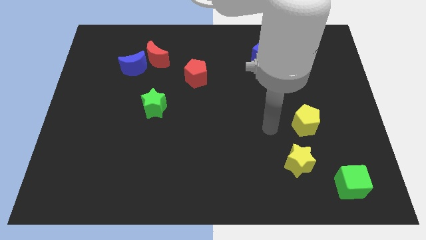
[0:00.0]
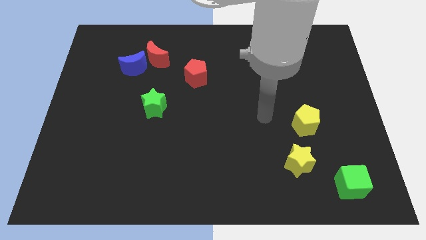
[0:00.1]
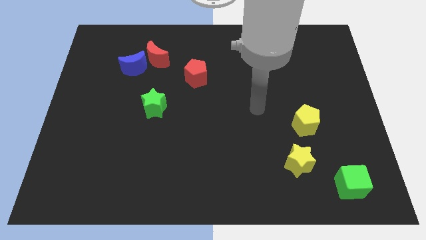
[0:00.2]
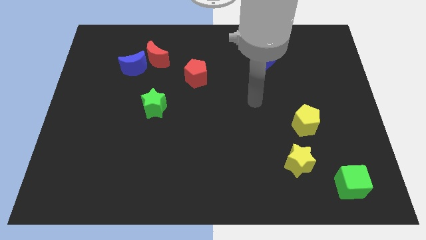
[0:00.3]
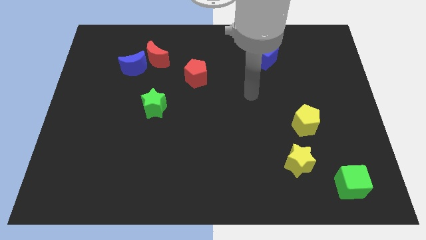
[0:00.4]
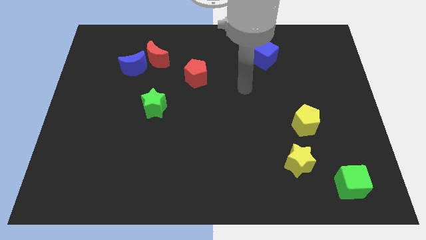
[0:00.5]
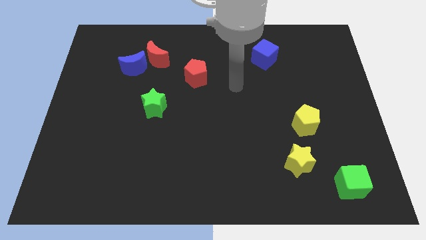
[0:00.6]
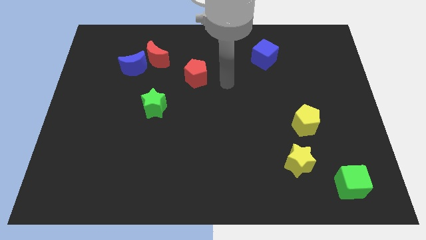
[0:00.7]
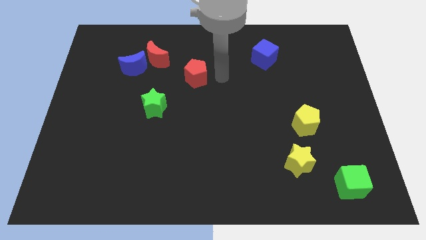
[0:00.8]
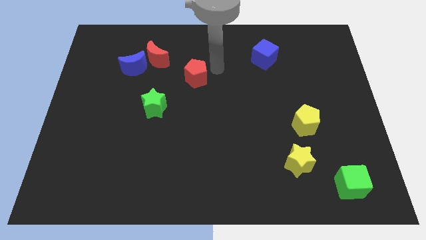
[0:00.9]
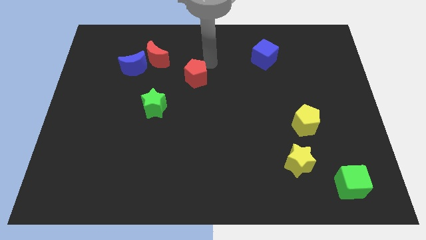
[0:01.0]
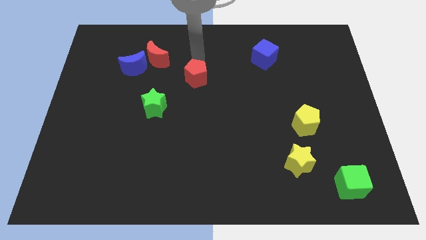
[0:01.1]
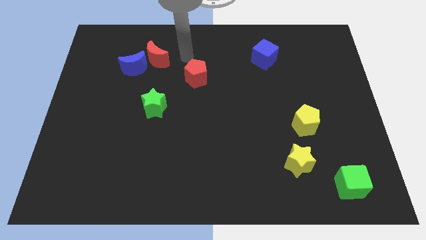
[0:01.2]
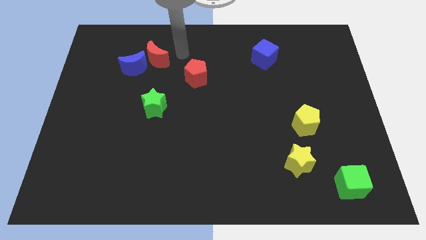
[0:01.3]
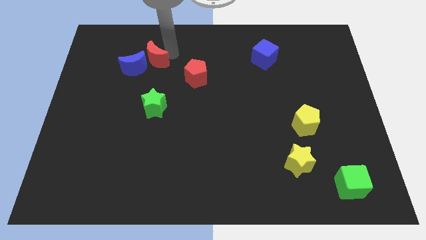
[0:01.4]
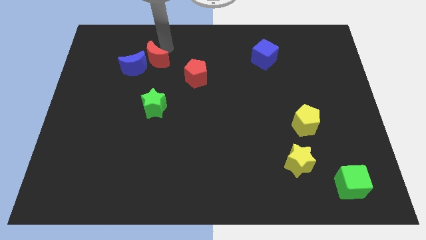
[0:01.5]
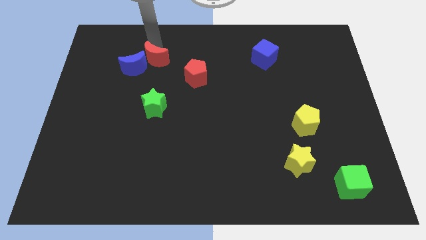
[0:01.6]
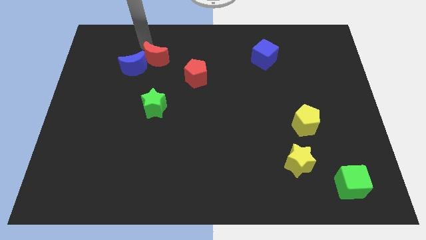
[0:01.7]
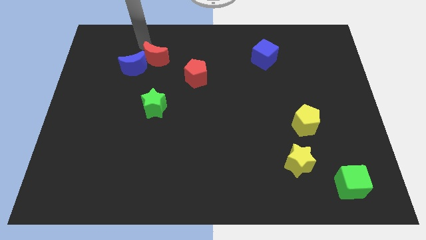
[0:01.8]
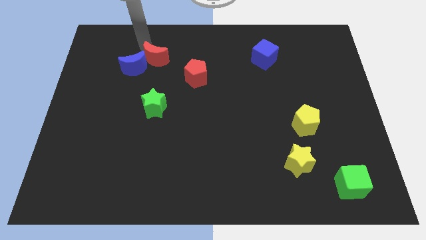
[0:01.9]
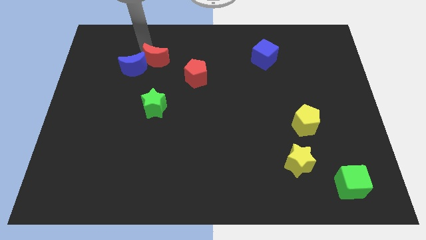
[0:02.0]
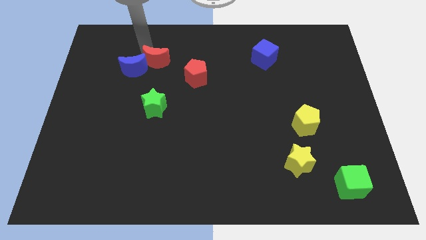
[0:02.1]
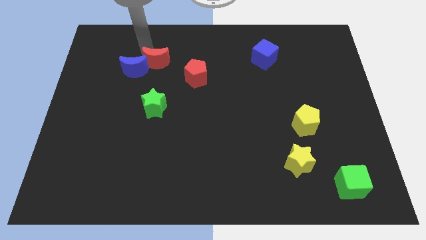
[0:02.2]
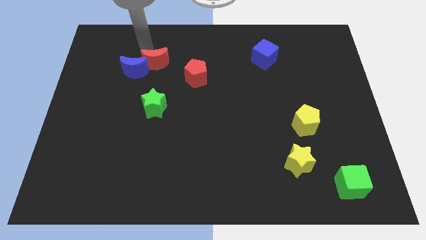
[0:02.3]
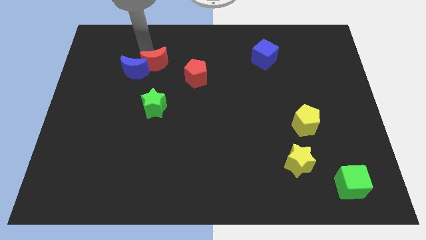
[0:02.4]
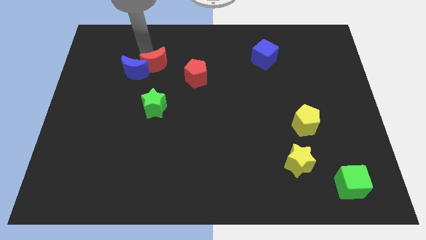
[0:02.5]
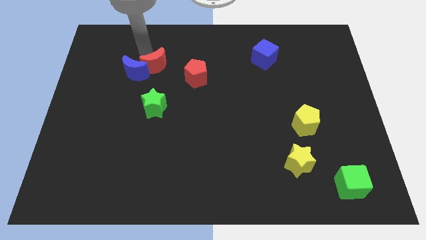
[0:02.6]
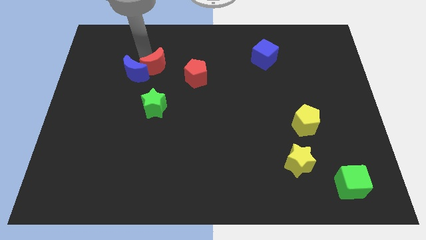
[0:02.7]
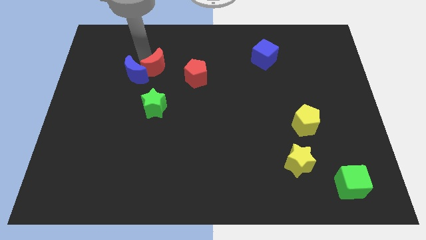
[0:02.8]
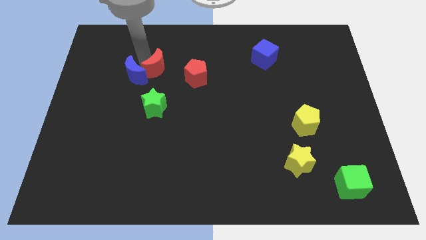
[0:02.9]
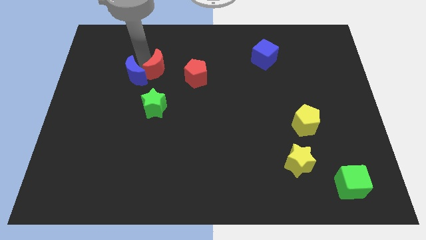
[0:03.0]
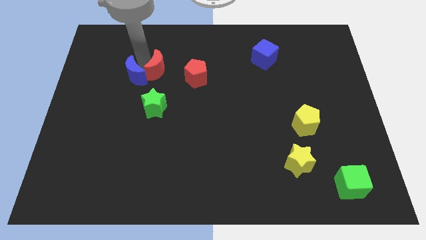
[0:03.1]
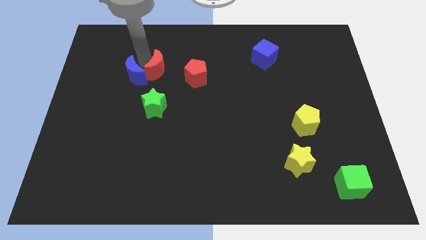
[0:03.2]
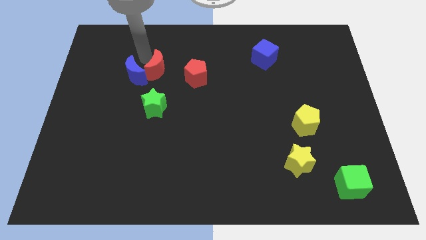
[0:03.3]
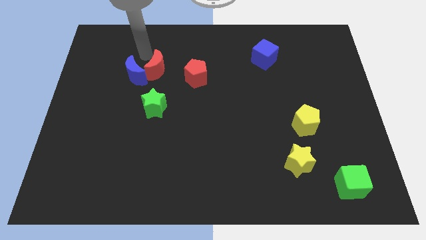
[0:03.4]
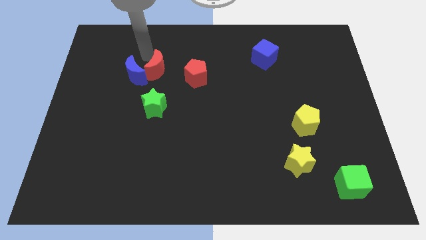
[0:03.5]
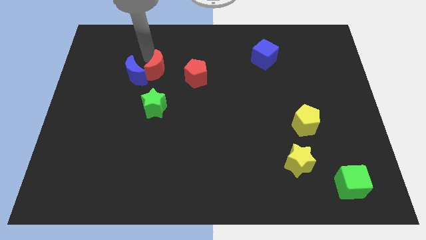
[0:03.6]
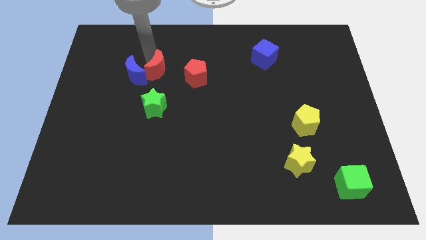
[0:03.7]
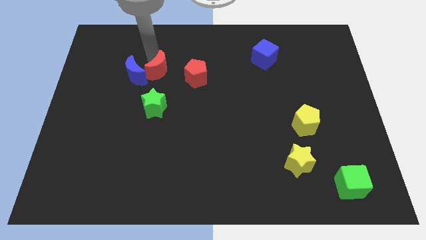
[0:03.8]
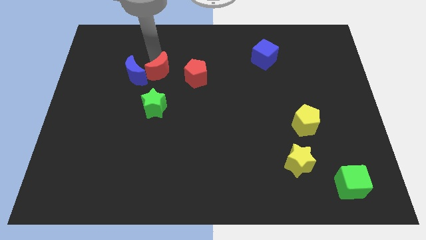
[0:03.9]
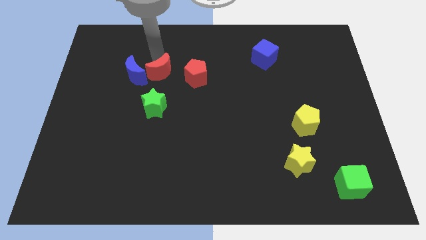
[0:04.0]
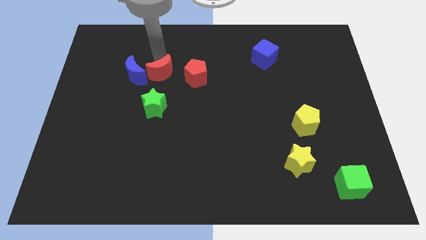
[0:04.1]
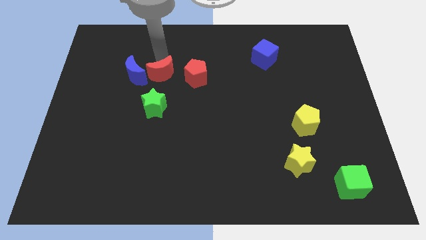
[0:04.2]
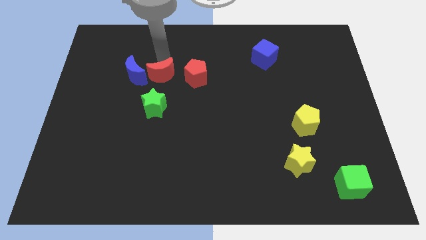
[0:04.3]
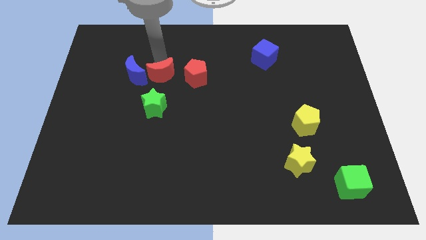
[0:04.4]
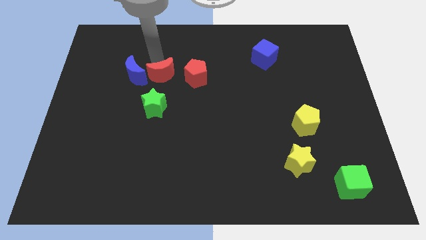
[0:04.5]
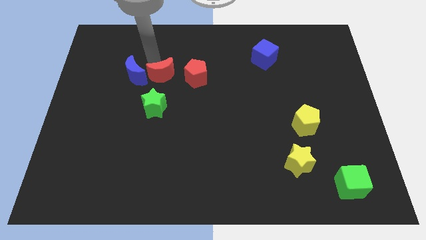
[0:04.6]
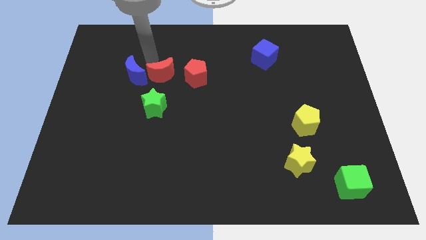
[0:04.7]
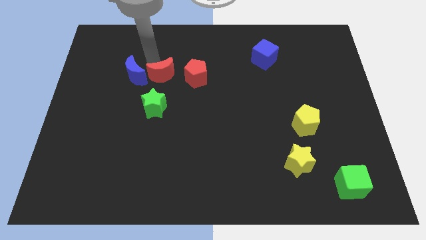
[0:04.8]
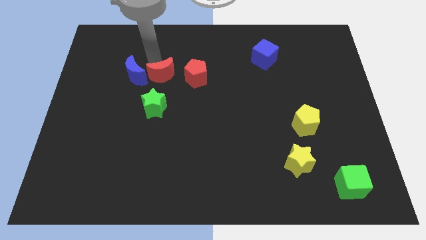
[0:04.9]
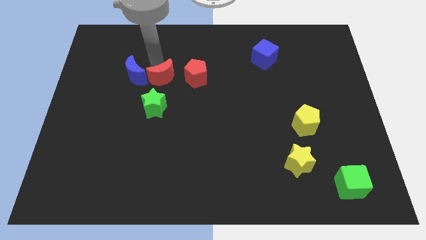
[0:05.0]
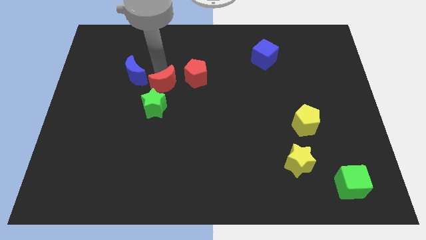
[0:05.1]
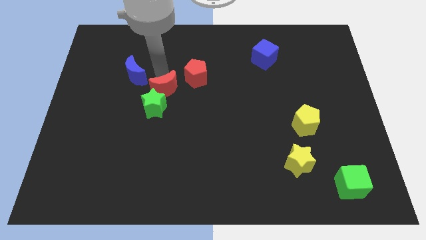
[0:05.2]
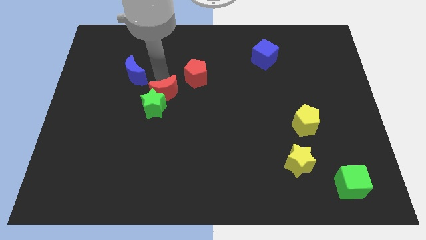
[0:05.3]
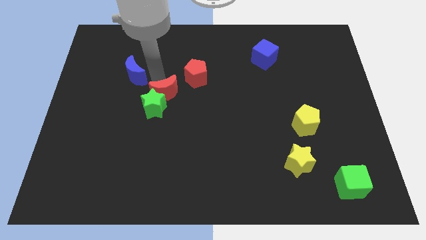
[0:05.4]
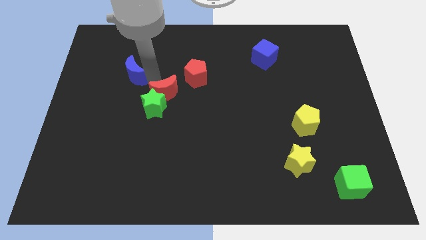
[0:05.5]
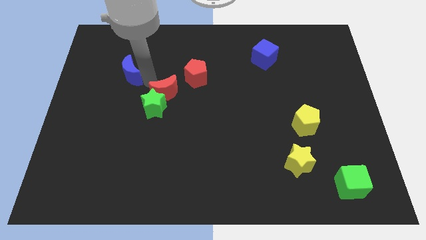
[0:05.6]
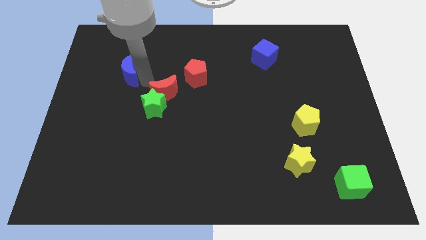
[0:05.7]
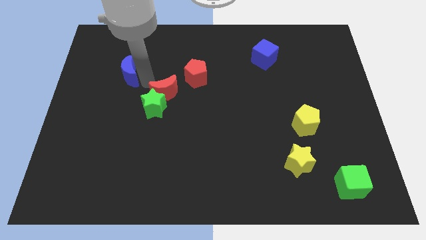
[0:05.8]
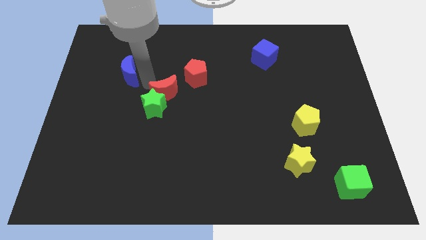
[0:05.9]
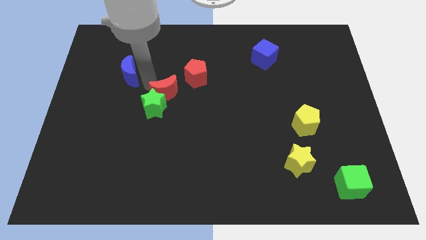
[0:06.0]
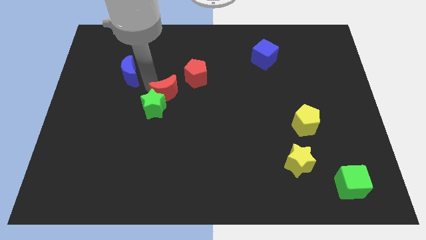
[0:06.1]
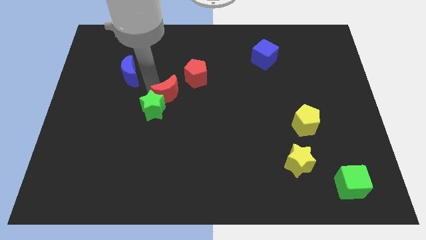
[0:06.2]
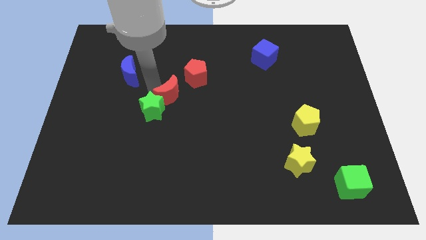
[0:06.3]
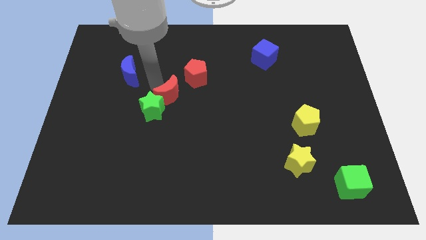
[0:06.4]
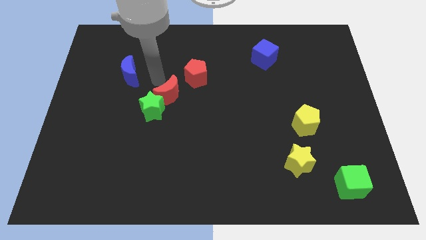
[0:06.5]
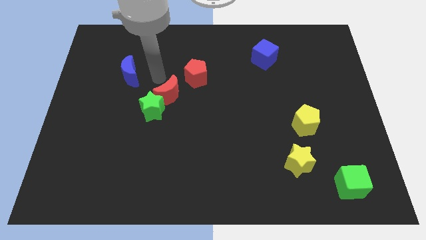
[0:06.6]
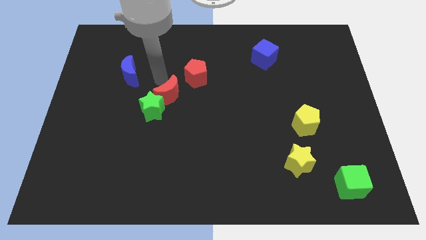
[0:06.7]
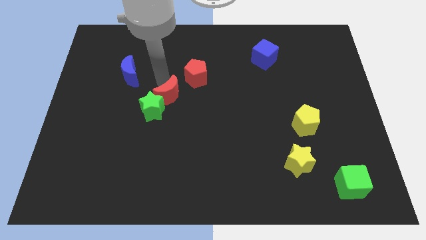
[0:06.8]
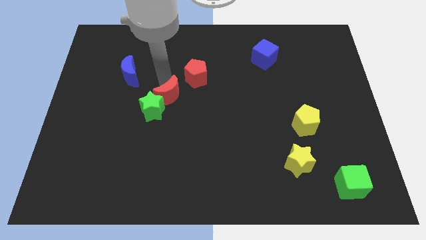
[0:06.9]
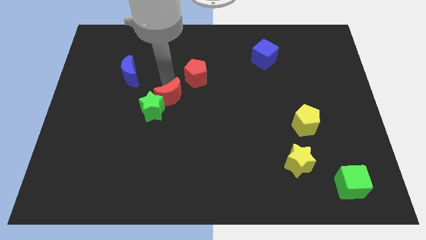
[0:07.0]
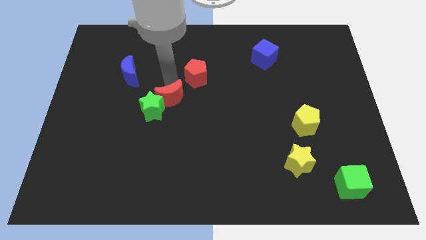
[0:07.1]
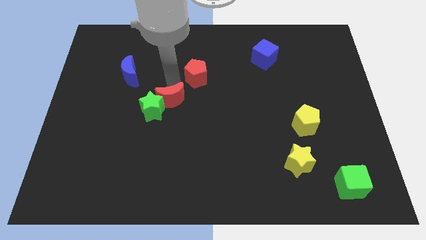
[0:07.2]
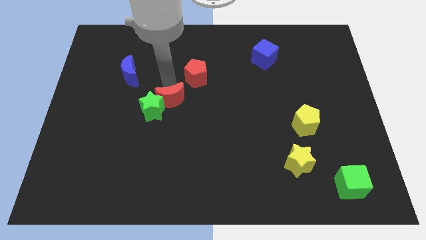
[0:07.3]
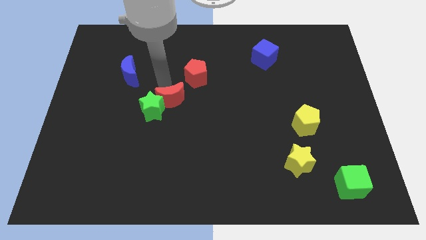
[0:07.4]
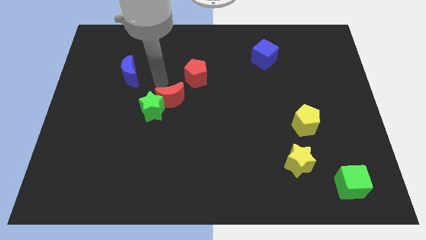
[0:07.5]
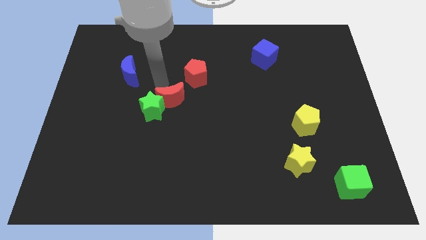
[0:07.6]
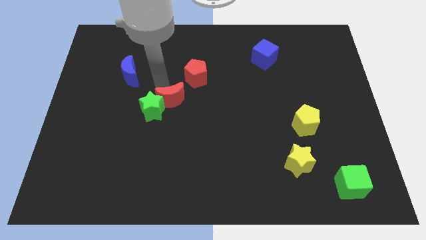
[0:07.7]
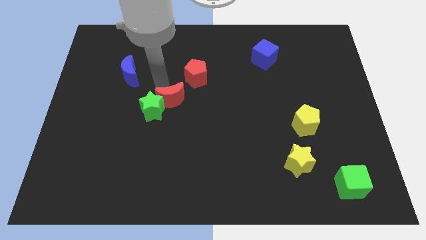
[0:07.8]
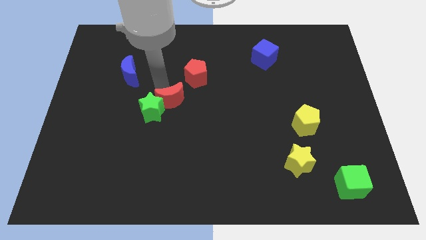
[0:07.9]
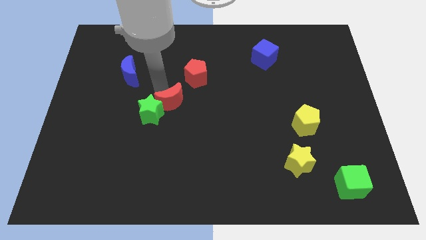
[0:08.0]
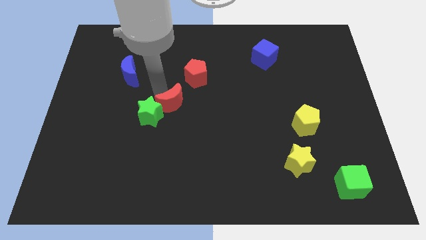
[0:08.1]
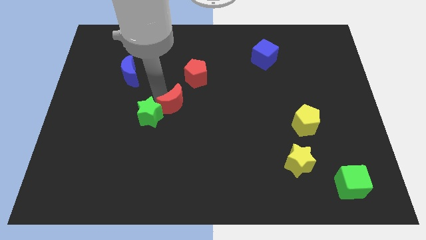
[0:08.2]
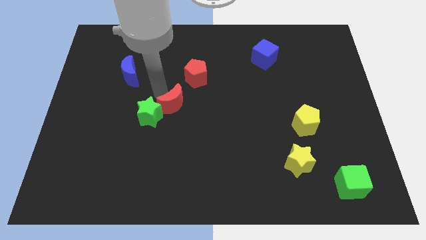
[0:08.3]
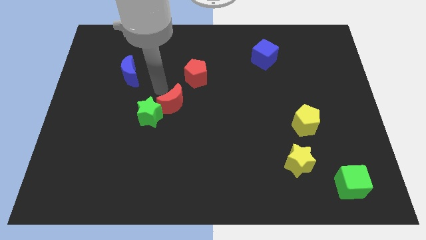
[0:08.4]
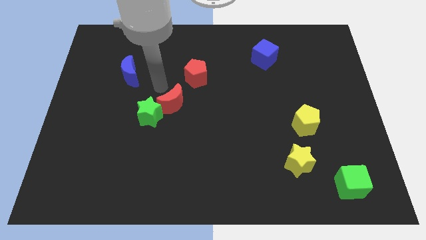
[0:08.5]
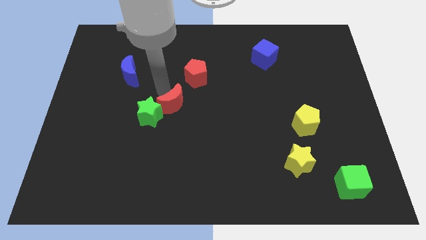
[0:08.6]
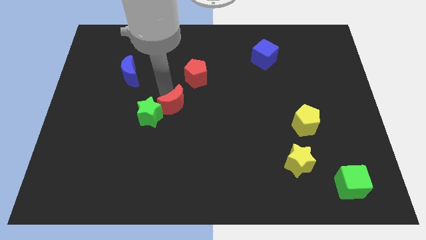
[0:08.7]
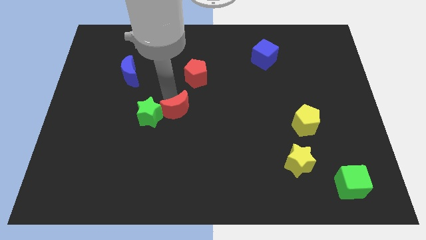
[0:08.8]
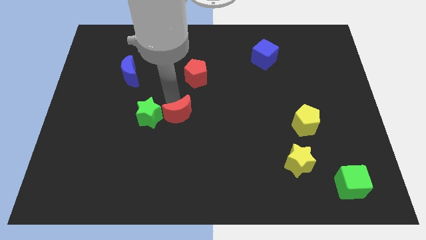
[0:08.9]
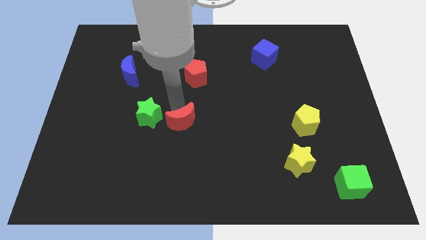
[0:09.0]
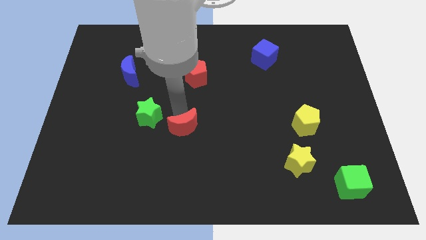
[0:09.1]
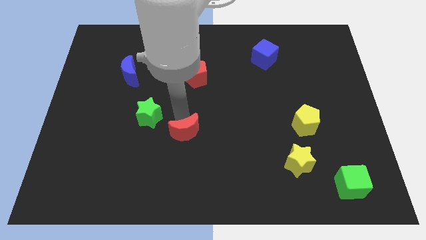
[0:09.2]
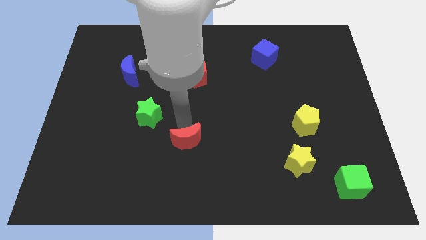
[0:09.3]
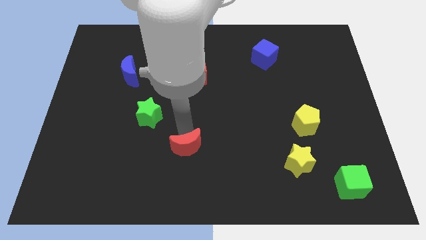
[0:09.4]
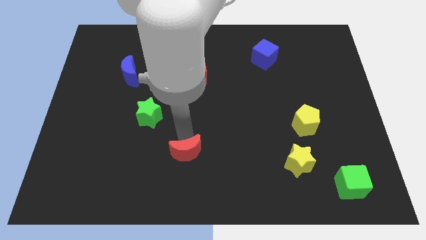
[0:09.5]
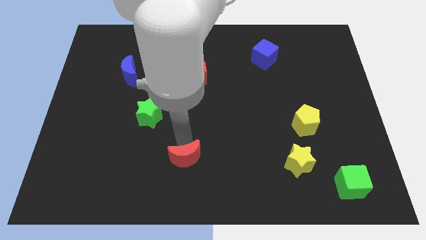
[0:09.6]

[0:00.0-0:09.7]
put the red moon to the bottom
